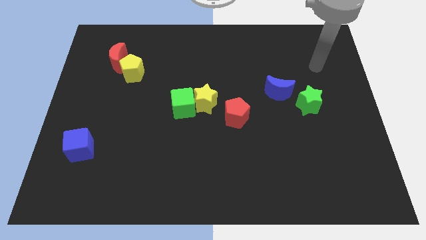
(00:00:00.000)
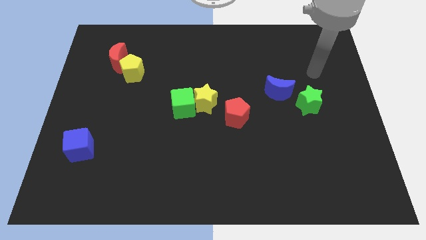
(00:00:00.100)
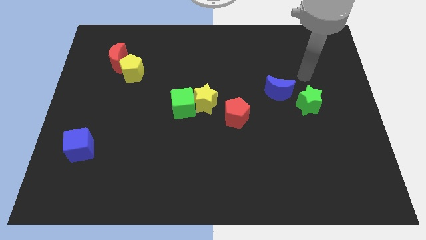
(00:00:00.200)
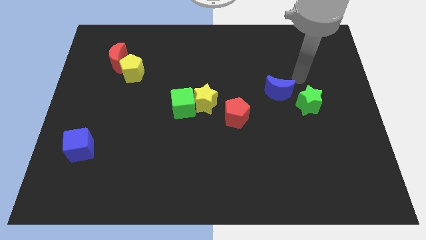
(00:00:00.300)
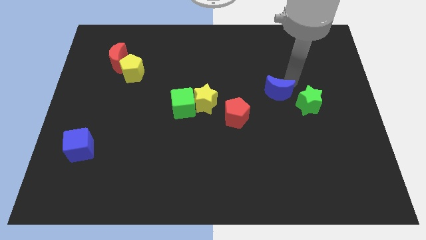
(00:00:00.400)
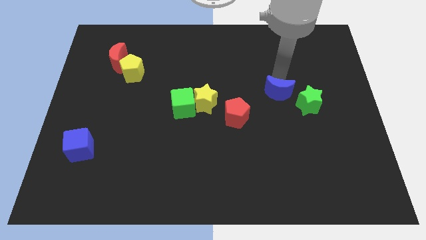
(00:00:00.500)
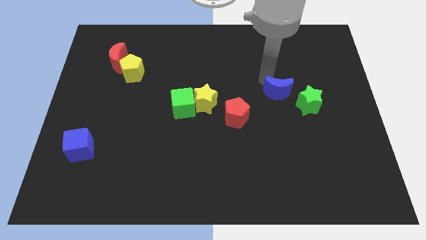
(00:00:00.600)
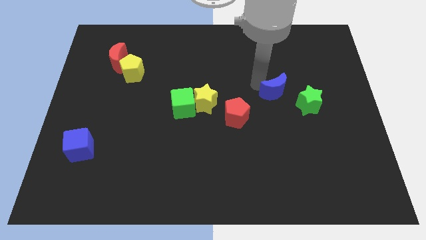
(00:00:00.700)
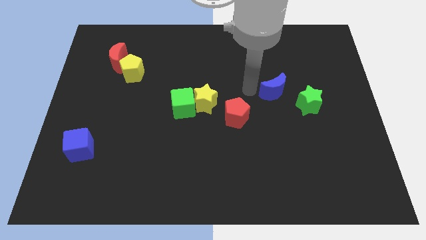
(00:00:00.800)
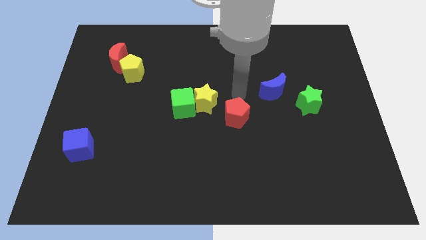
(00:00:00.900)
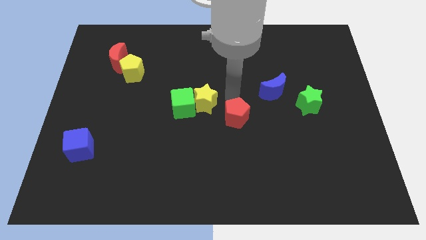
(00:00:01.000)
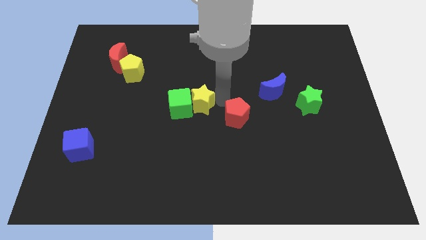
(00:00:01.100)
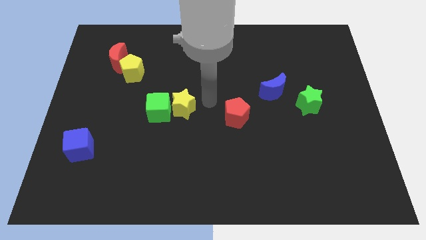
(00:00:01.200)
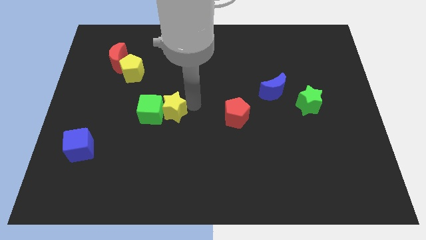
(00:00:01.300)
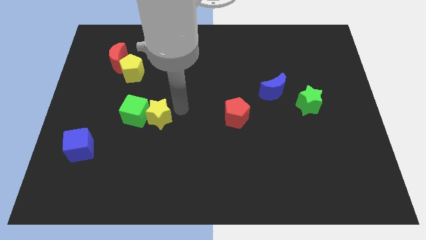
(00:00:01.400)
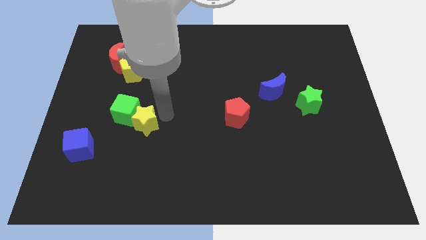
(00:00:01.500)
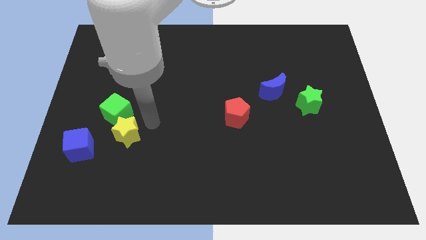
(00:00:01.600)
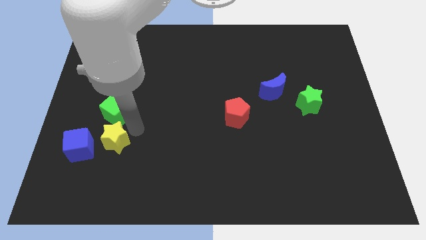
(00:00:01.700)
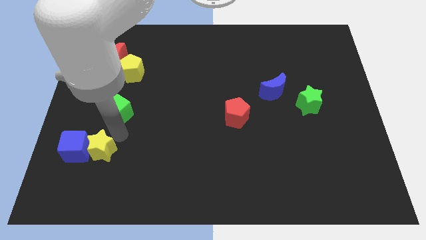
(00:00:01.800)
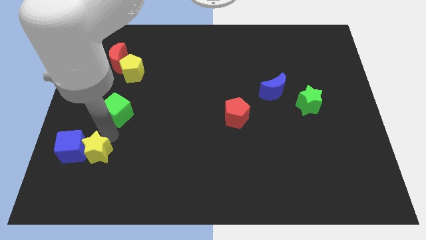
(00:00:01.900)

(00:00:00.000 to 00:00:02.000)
separate the green cube from the yellow star

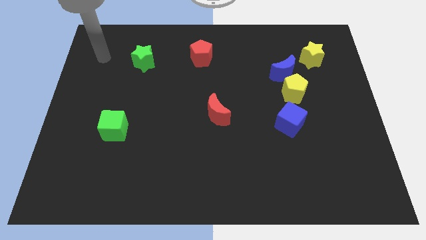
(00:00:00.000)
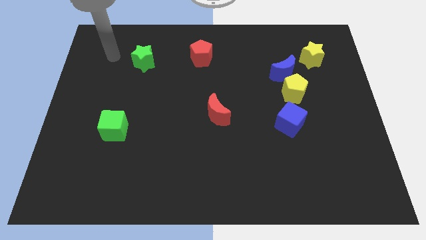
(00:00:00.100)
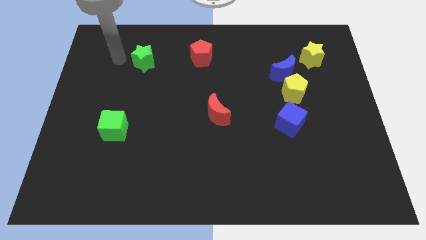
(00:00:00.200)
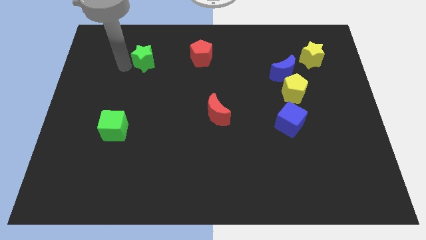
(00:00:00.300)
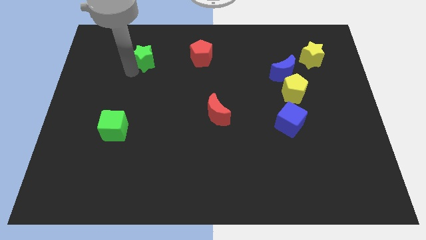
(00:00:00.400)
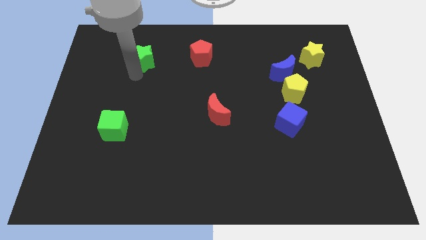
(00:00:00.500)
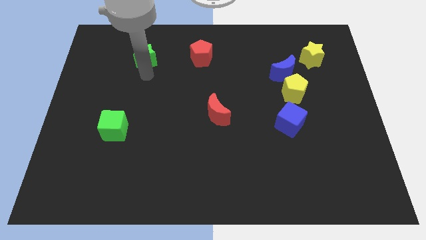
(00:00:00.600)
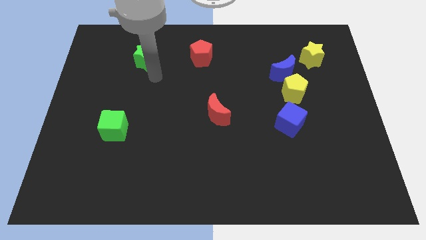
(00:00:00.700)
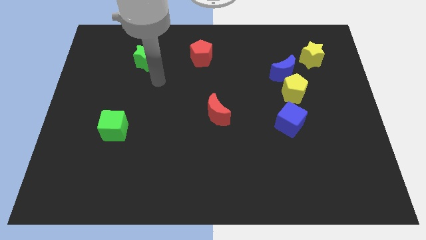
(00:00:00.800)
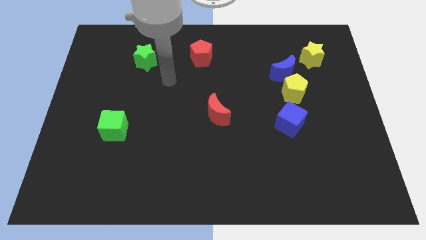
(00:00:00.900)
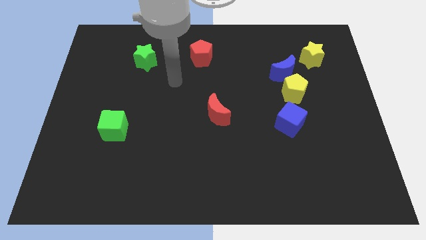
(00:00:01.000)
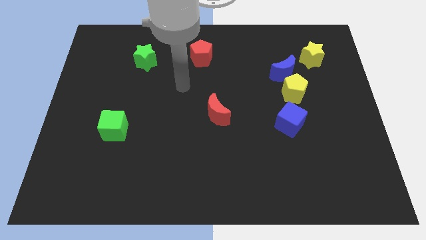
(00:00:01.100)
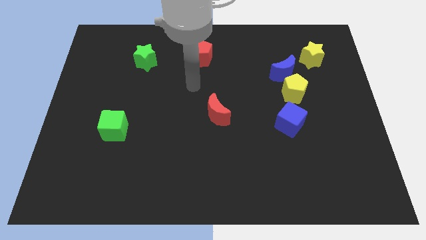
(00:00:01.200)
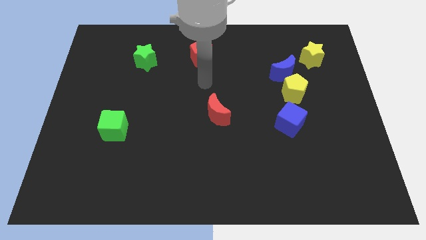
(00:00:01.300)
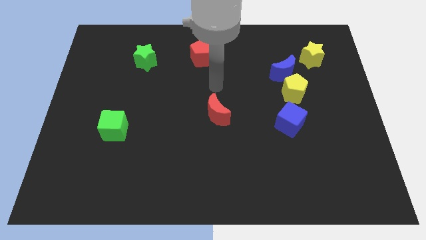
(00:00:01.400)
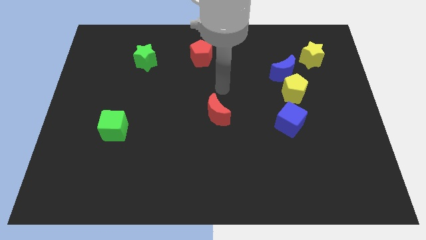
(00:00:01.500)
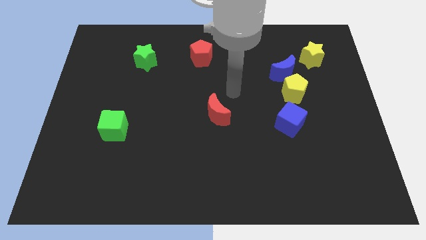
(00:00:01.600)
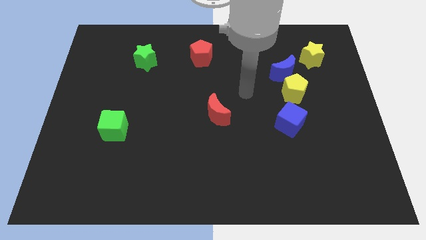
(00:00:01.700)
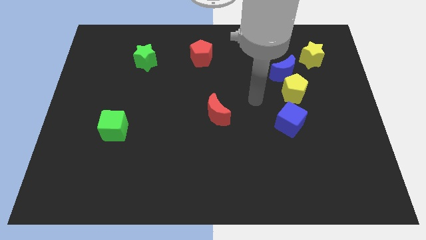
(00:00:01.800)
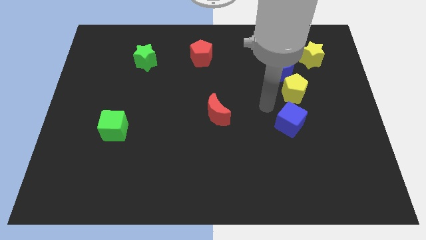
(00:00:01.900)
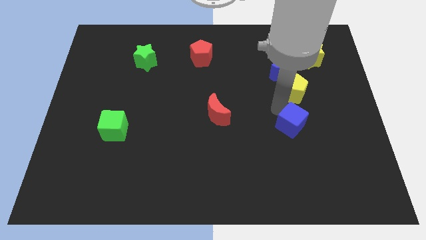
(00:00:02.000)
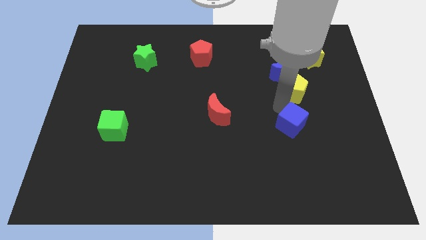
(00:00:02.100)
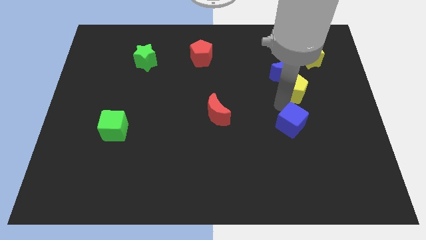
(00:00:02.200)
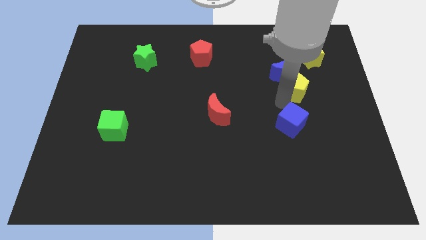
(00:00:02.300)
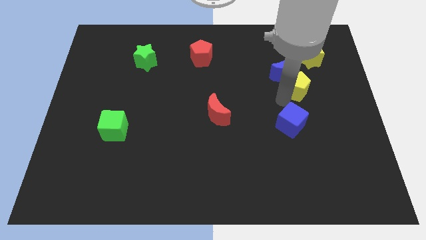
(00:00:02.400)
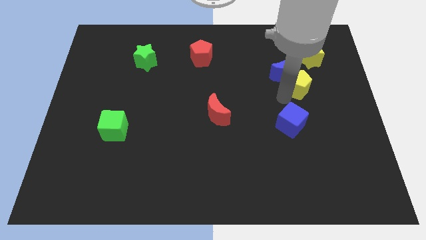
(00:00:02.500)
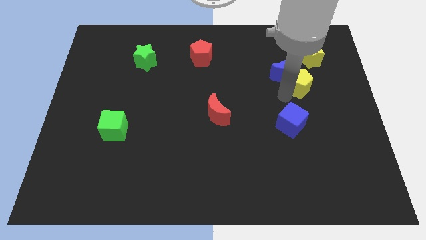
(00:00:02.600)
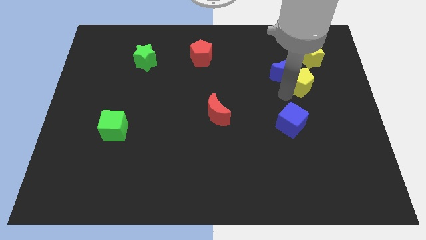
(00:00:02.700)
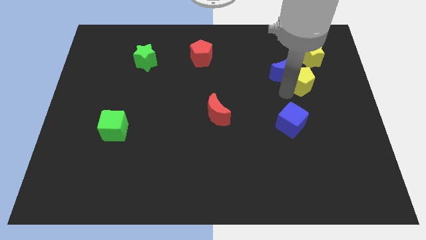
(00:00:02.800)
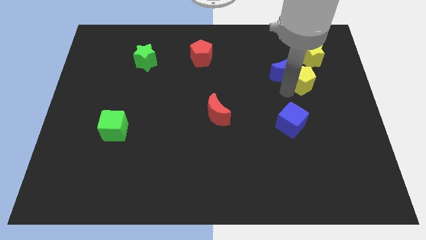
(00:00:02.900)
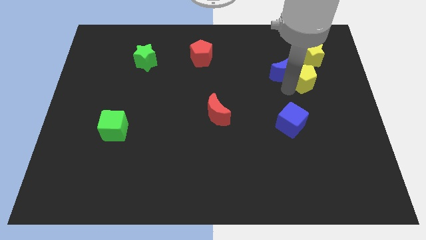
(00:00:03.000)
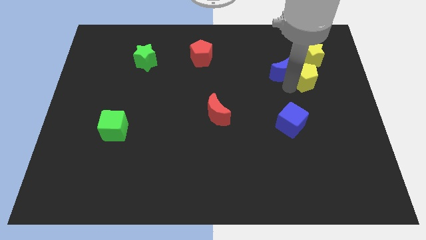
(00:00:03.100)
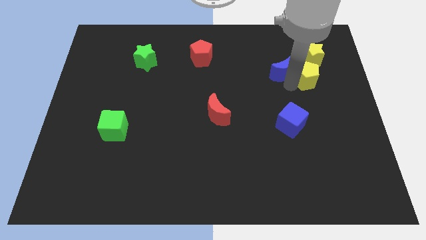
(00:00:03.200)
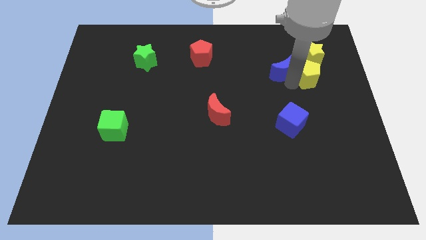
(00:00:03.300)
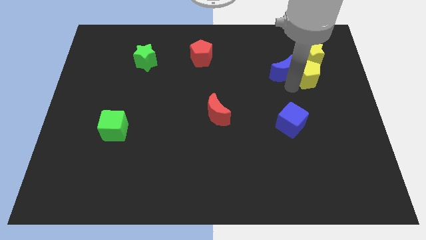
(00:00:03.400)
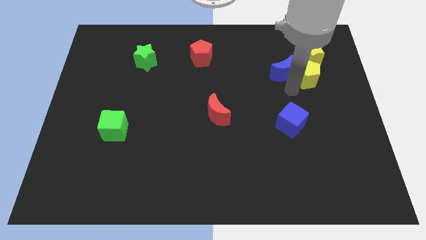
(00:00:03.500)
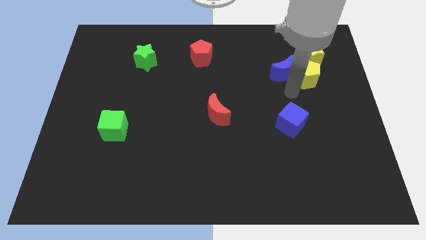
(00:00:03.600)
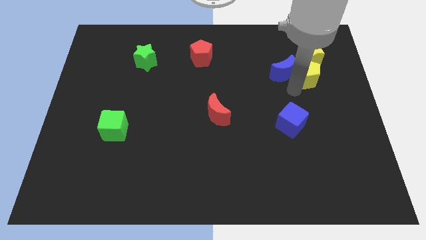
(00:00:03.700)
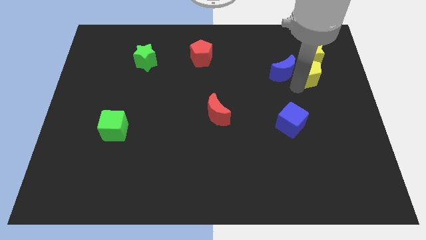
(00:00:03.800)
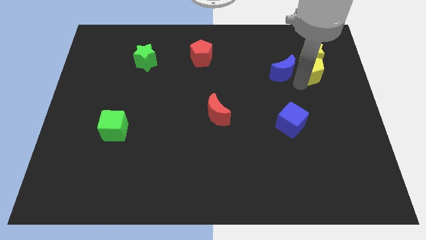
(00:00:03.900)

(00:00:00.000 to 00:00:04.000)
move the yellow pentagon away from the blue moon and blue cube

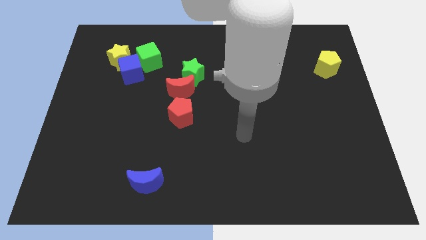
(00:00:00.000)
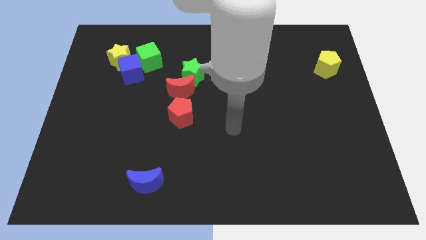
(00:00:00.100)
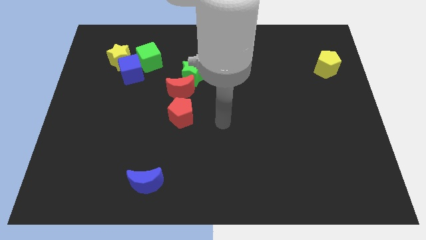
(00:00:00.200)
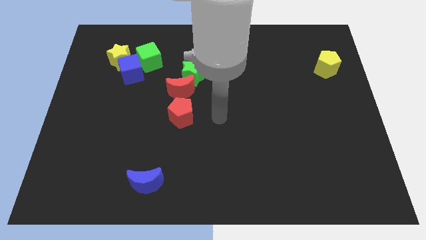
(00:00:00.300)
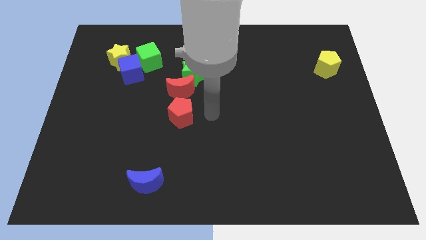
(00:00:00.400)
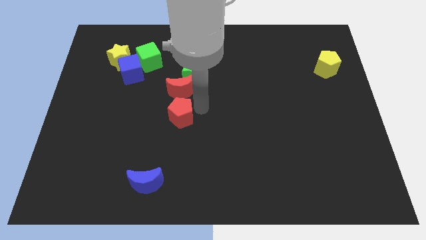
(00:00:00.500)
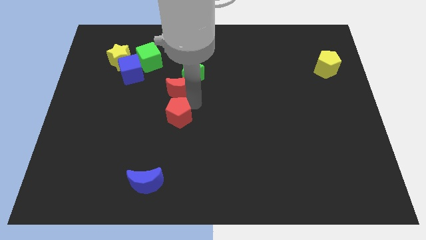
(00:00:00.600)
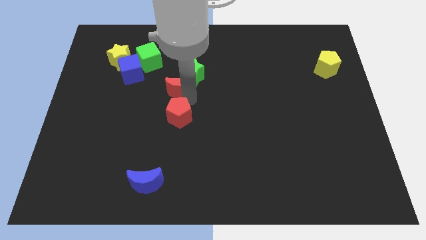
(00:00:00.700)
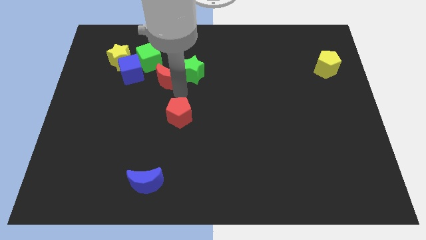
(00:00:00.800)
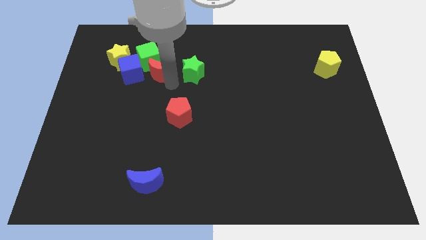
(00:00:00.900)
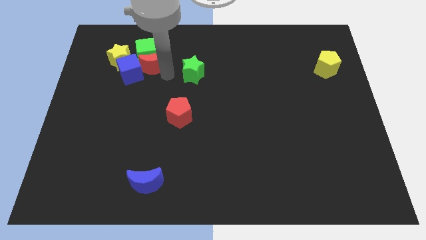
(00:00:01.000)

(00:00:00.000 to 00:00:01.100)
separate the green star from the red moon

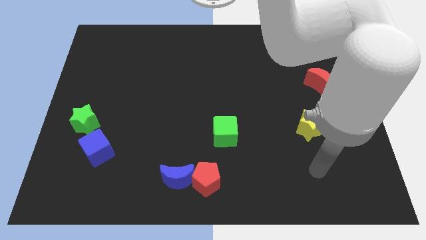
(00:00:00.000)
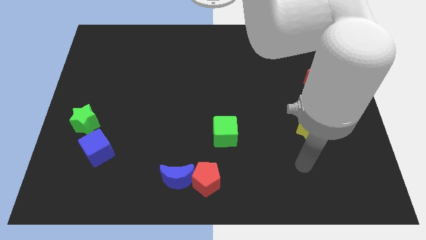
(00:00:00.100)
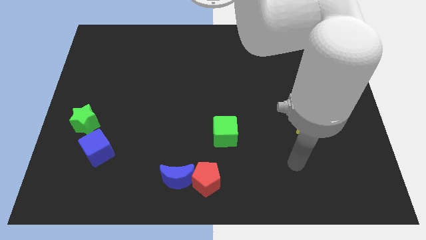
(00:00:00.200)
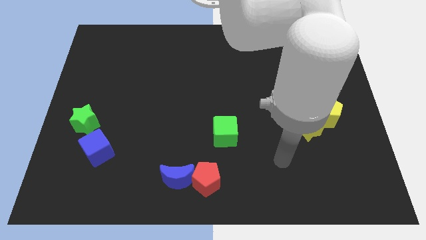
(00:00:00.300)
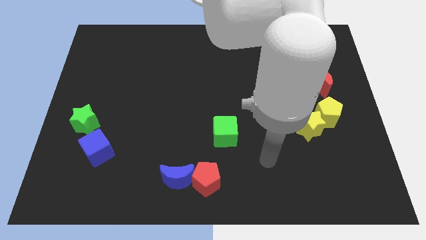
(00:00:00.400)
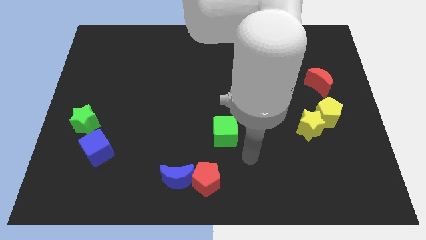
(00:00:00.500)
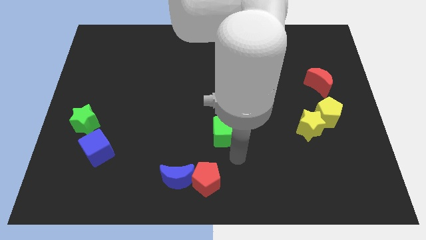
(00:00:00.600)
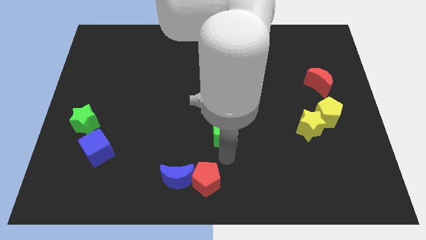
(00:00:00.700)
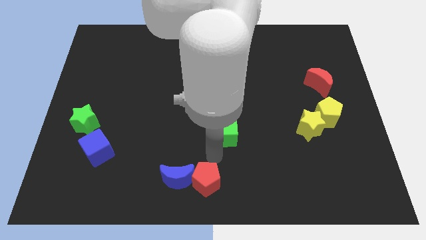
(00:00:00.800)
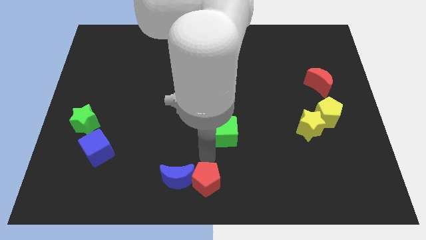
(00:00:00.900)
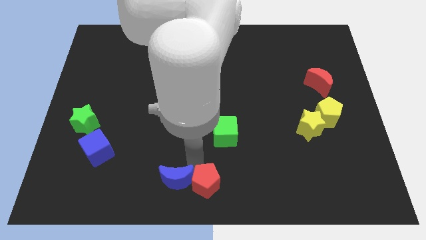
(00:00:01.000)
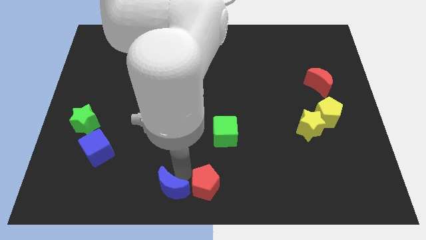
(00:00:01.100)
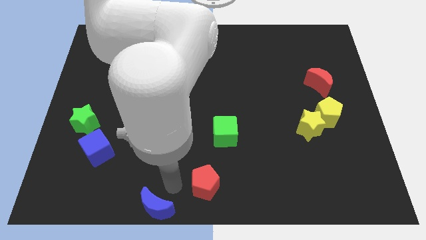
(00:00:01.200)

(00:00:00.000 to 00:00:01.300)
pull the red pentagon apart from the blue moon

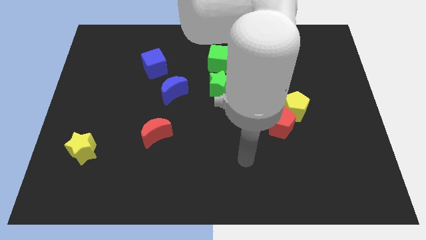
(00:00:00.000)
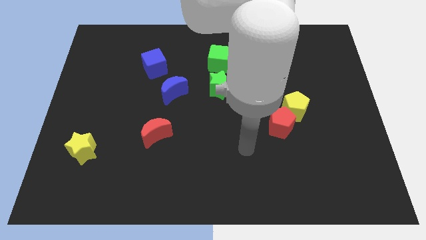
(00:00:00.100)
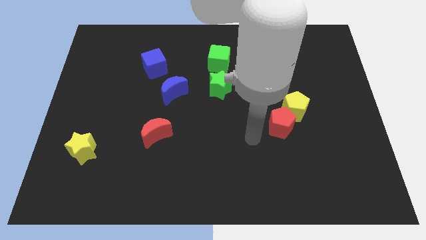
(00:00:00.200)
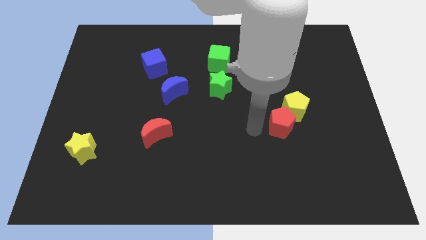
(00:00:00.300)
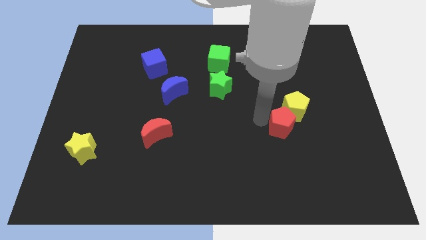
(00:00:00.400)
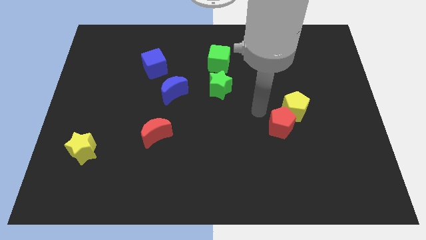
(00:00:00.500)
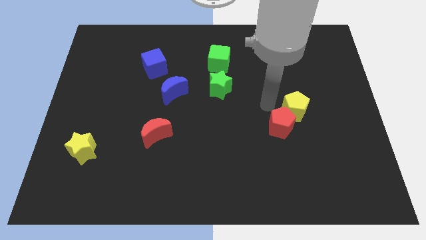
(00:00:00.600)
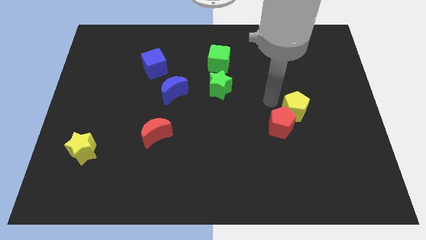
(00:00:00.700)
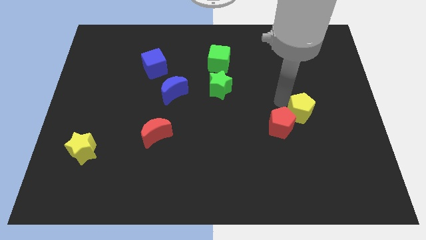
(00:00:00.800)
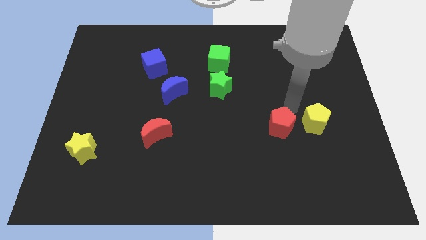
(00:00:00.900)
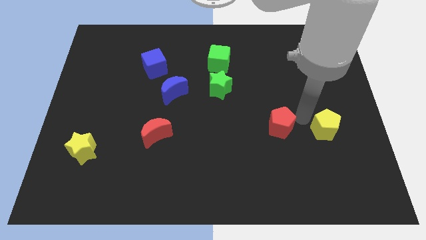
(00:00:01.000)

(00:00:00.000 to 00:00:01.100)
separate the red pentagon from the yellow pentagon
